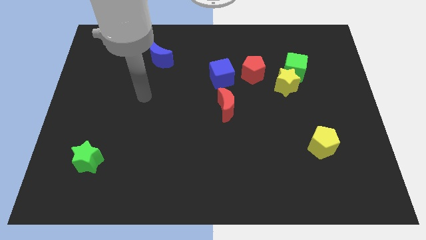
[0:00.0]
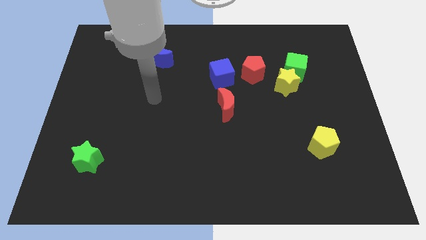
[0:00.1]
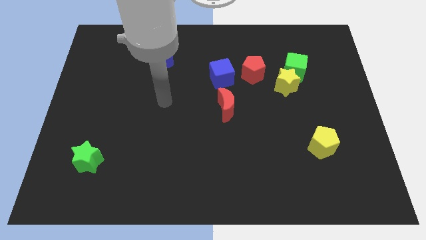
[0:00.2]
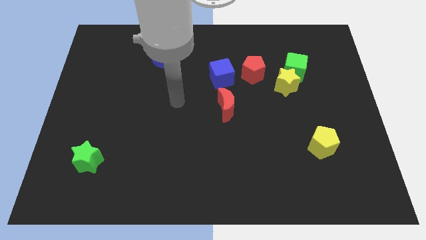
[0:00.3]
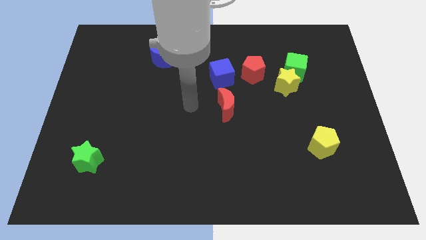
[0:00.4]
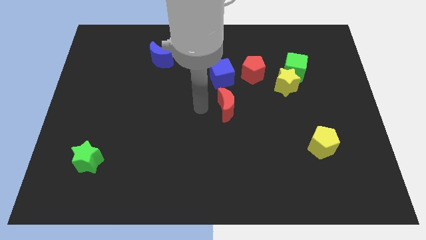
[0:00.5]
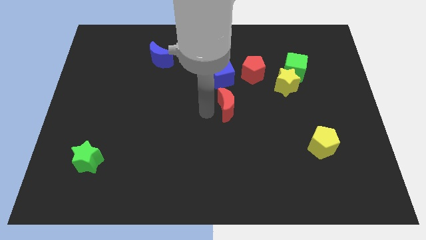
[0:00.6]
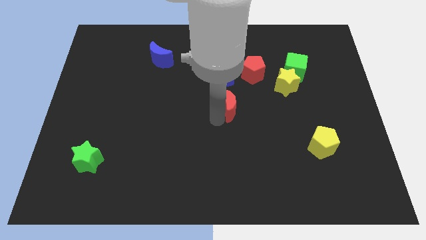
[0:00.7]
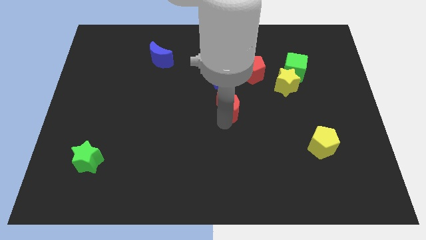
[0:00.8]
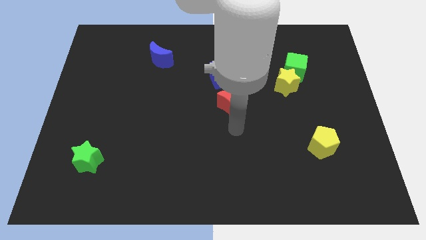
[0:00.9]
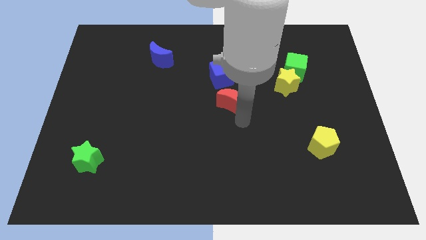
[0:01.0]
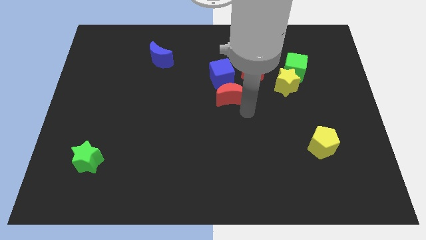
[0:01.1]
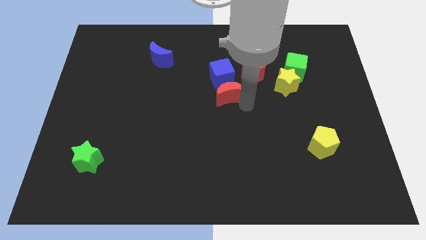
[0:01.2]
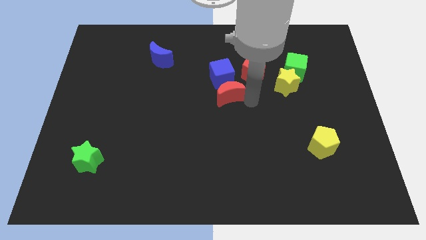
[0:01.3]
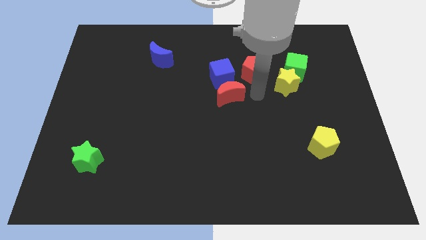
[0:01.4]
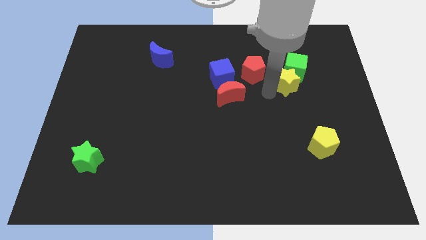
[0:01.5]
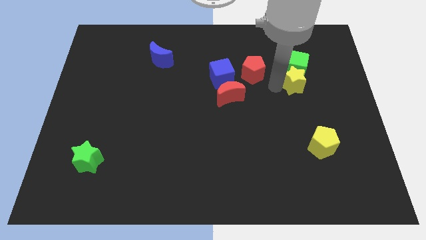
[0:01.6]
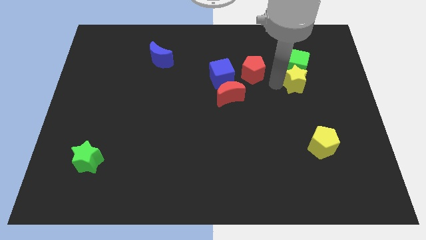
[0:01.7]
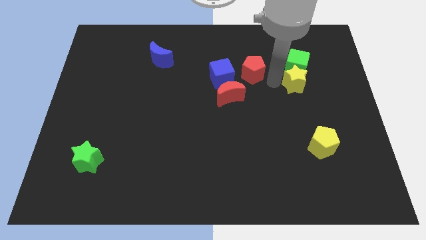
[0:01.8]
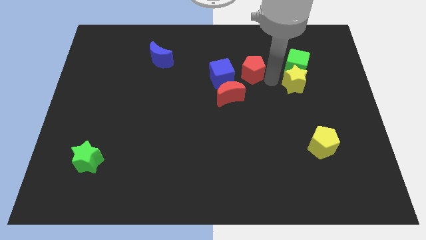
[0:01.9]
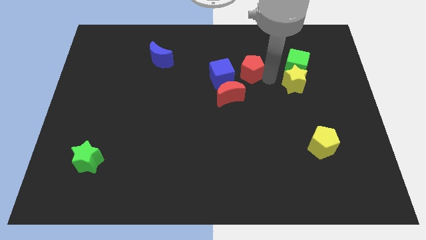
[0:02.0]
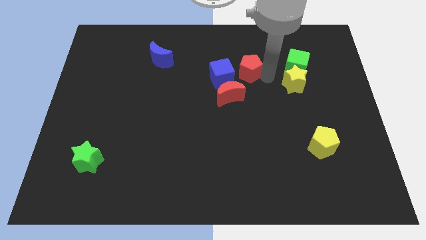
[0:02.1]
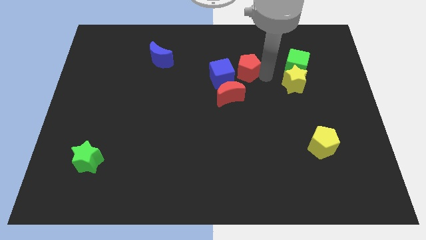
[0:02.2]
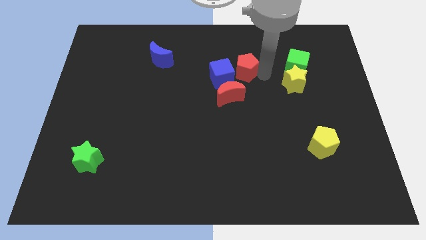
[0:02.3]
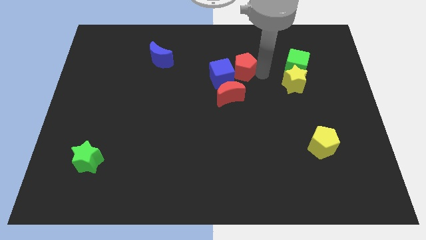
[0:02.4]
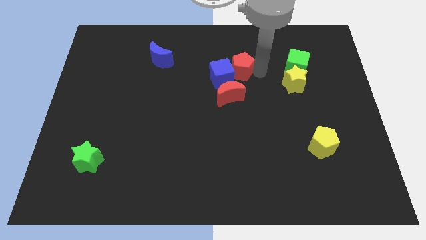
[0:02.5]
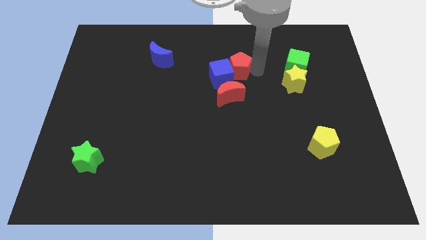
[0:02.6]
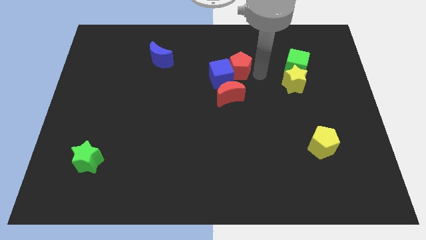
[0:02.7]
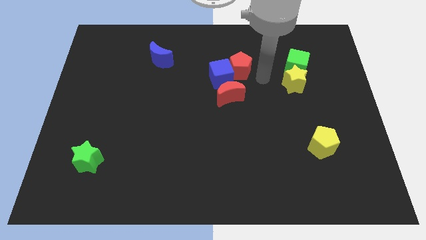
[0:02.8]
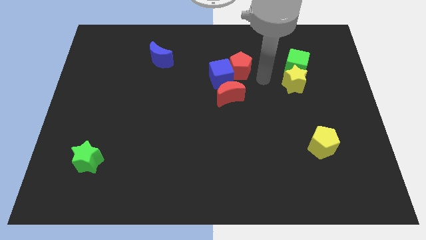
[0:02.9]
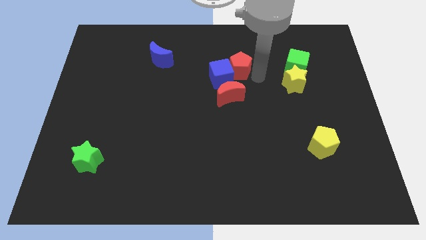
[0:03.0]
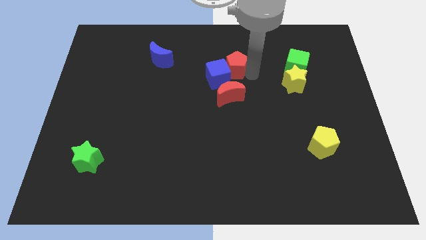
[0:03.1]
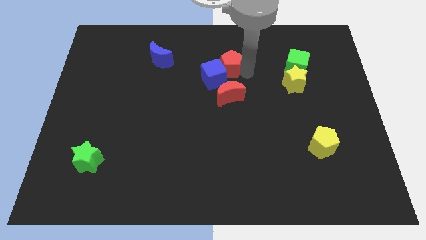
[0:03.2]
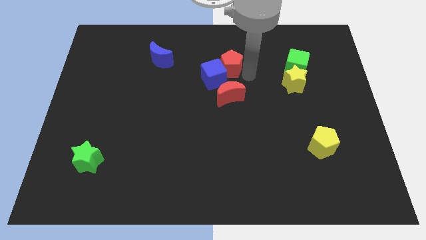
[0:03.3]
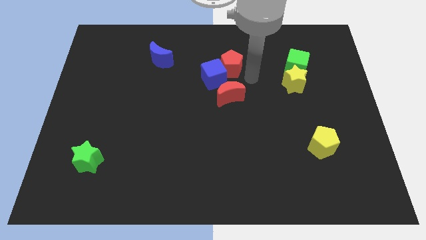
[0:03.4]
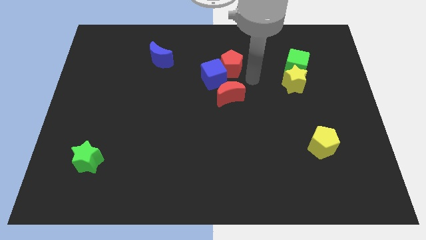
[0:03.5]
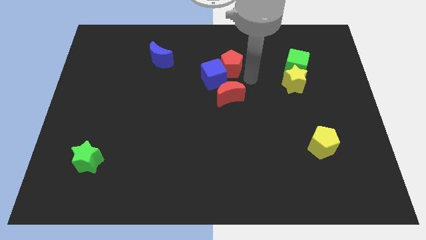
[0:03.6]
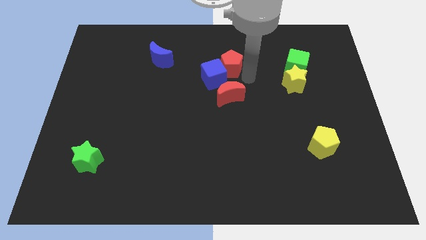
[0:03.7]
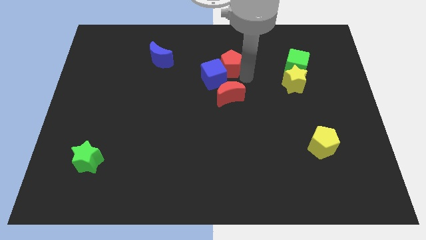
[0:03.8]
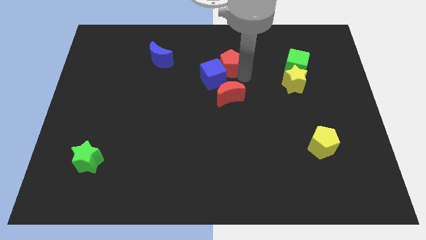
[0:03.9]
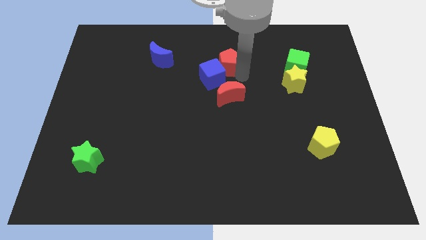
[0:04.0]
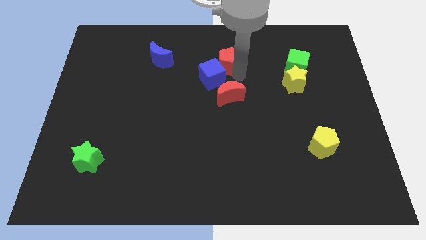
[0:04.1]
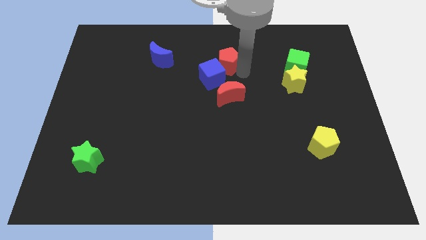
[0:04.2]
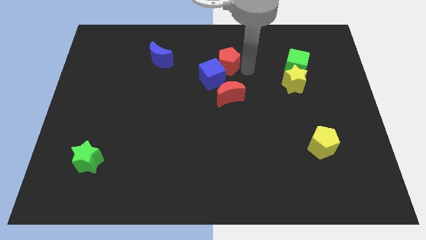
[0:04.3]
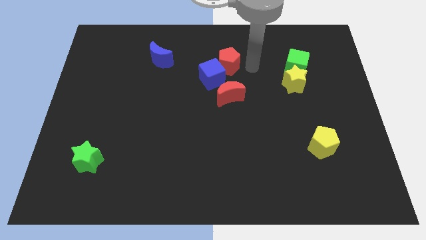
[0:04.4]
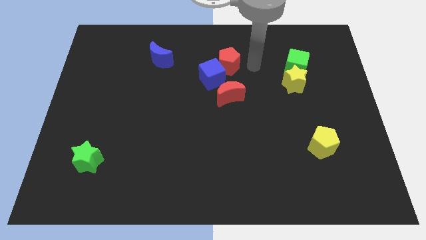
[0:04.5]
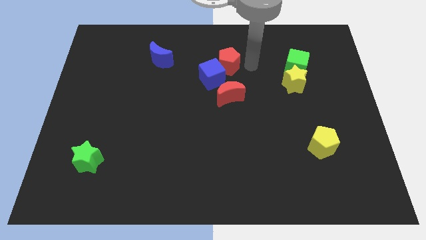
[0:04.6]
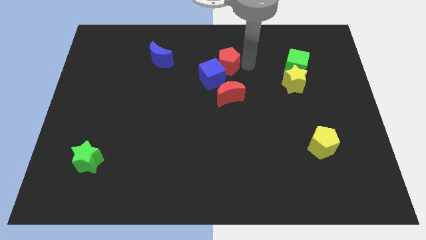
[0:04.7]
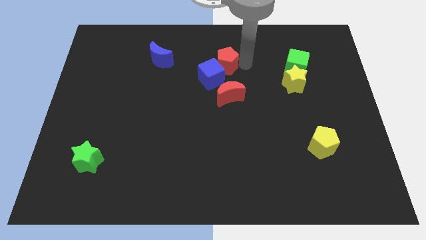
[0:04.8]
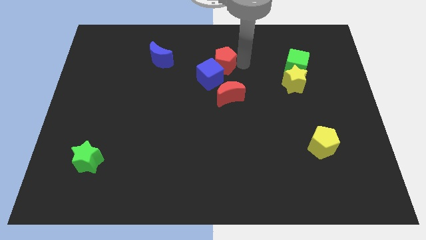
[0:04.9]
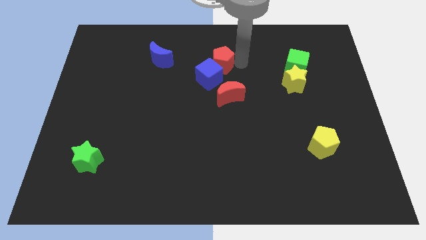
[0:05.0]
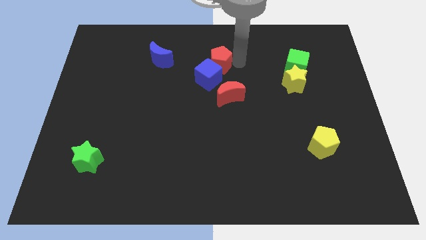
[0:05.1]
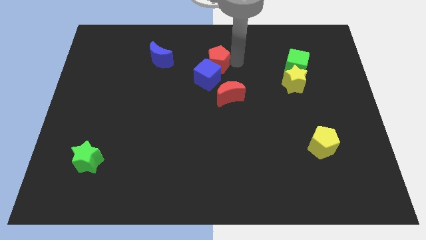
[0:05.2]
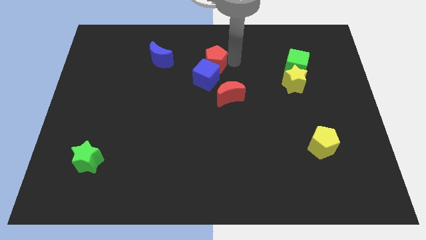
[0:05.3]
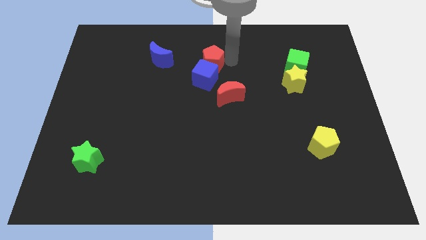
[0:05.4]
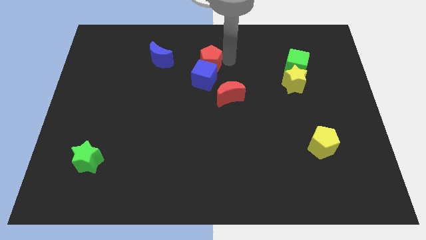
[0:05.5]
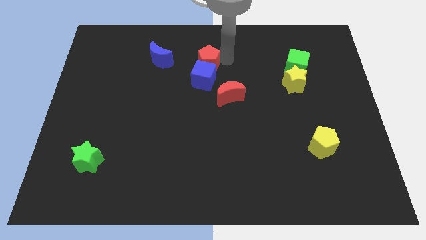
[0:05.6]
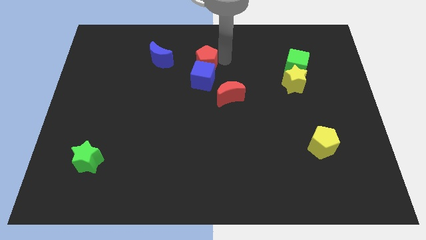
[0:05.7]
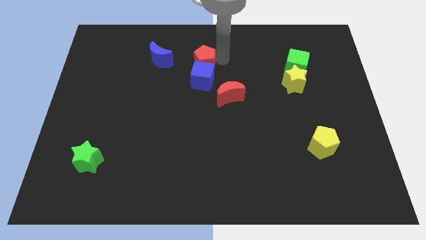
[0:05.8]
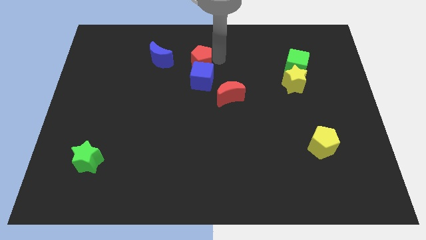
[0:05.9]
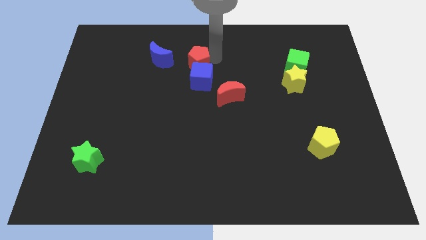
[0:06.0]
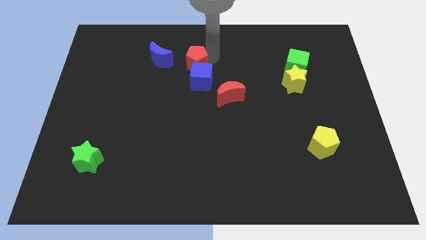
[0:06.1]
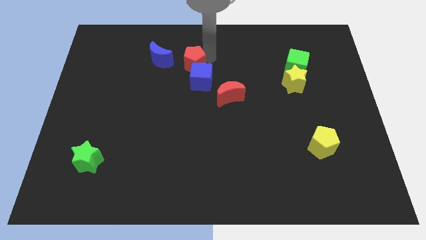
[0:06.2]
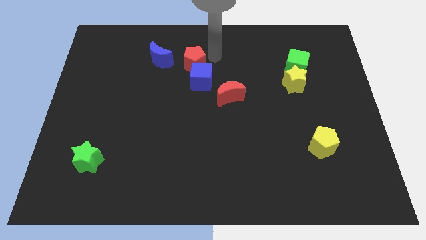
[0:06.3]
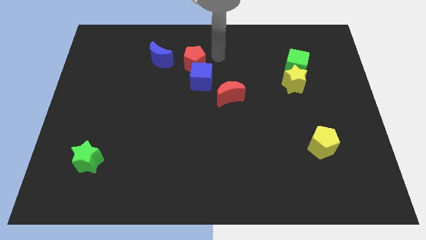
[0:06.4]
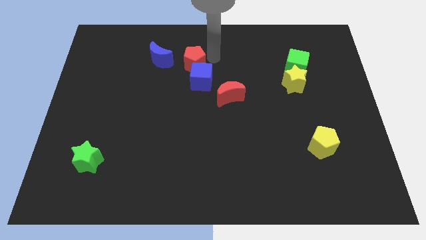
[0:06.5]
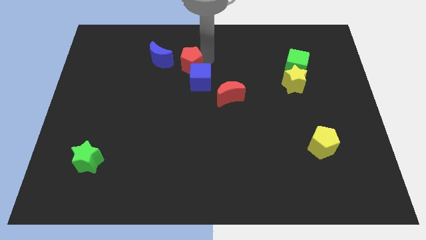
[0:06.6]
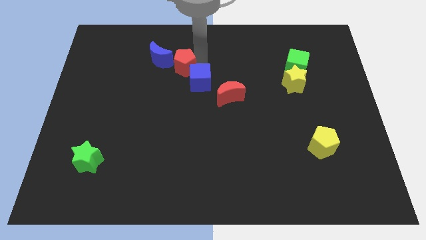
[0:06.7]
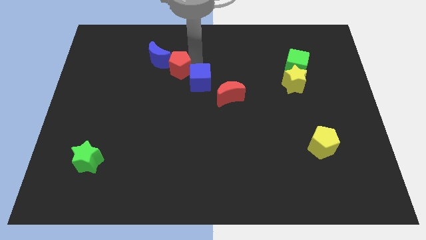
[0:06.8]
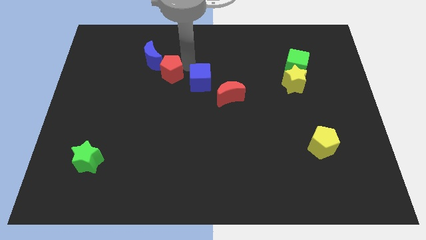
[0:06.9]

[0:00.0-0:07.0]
push the red pentagon to the left

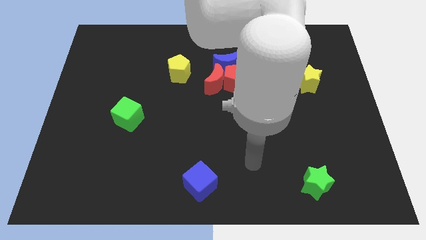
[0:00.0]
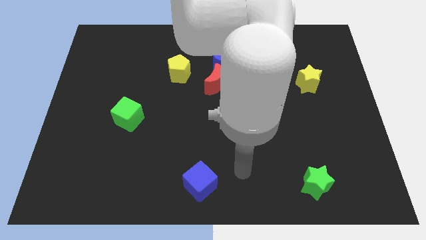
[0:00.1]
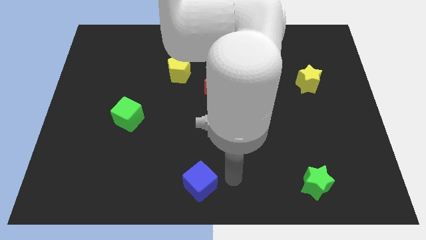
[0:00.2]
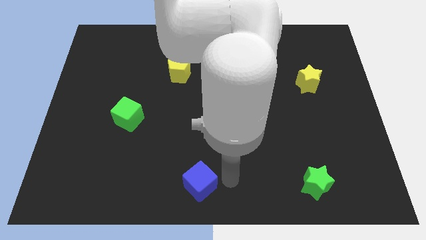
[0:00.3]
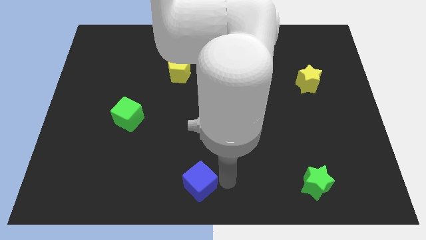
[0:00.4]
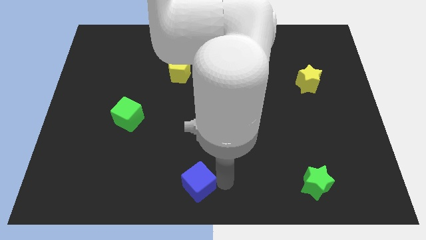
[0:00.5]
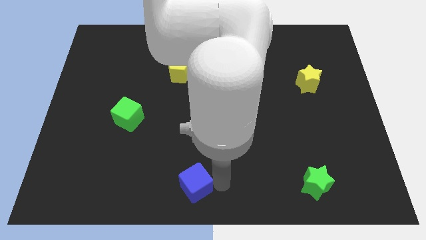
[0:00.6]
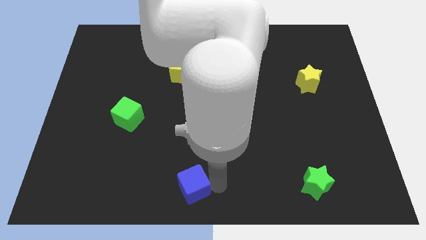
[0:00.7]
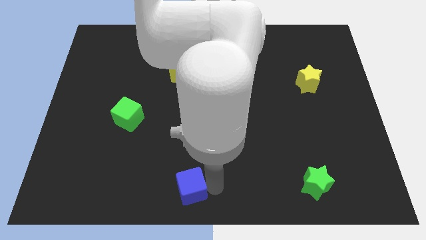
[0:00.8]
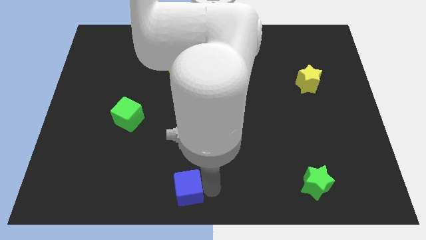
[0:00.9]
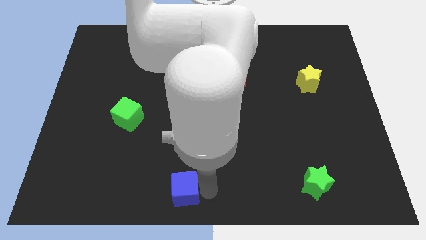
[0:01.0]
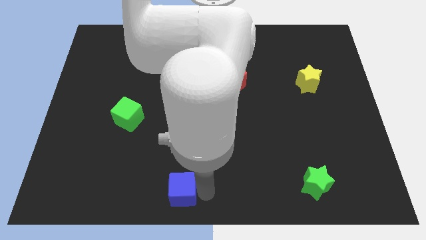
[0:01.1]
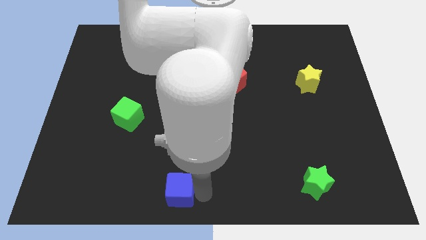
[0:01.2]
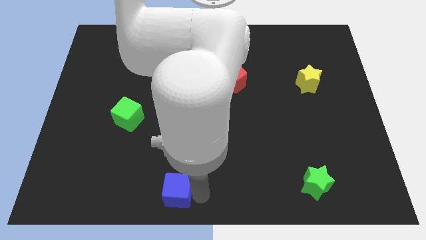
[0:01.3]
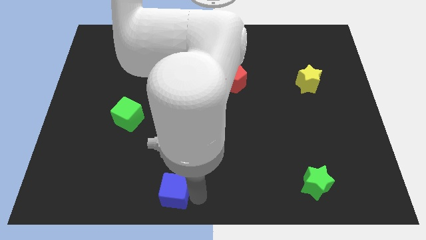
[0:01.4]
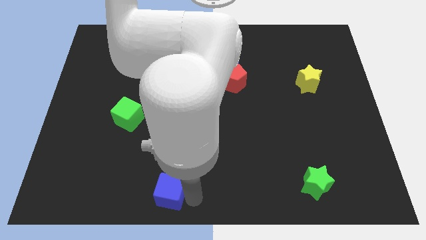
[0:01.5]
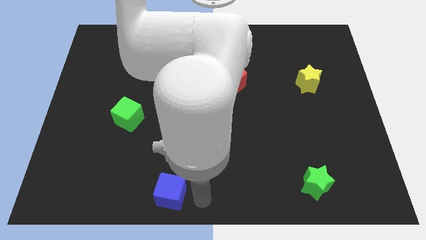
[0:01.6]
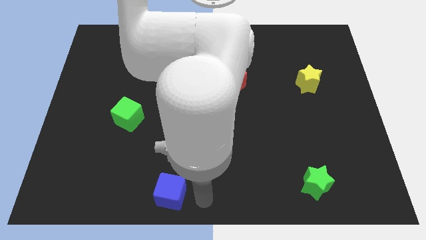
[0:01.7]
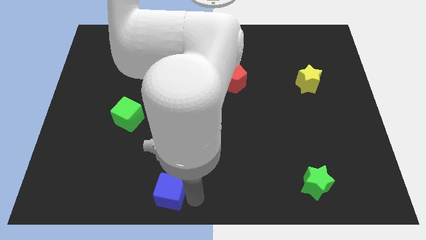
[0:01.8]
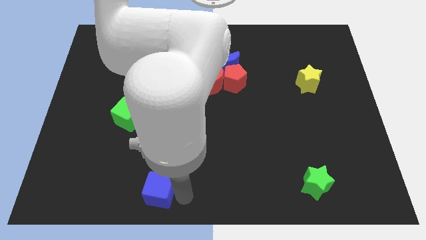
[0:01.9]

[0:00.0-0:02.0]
slightly move the blue cube to the left
